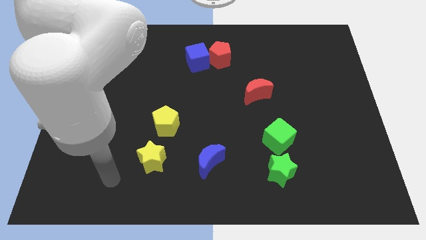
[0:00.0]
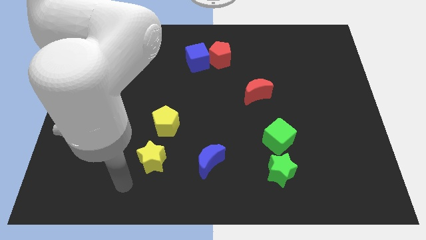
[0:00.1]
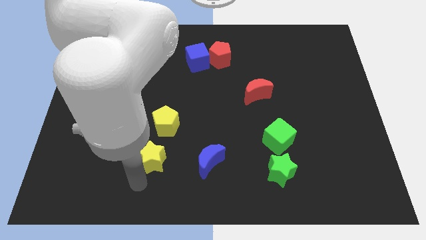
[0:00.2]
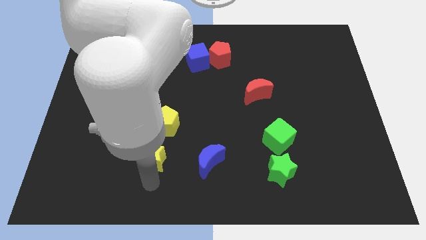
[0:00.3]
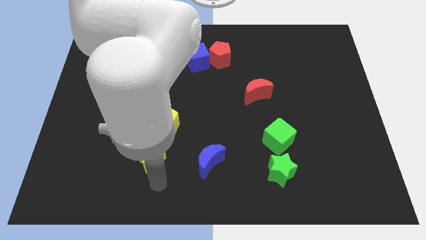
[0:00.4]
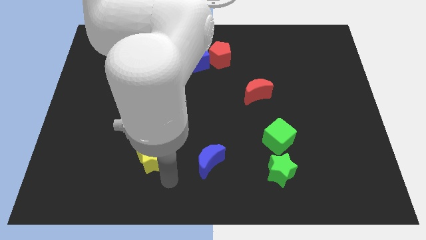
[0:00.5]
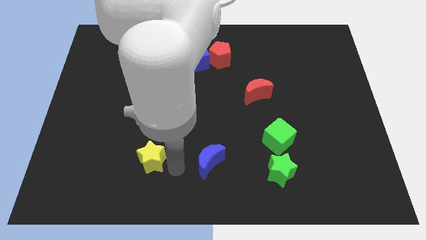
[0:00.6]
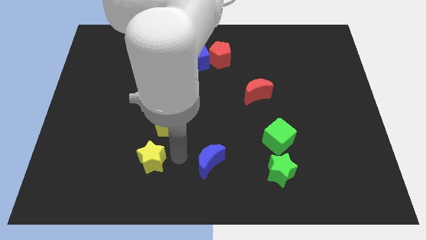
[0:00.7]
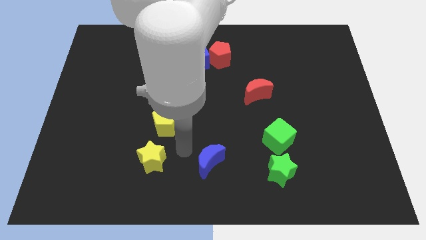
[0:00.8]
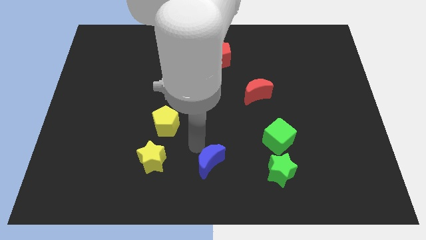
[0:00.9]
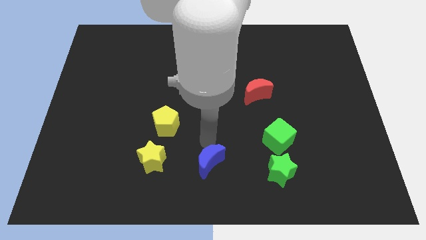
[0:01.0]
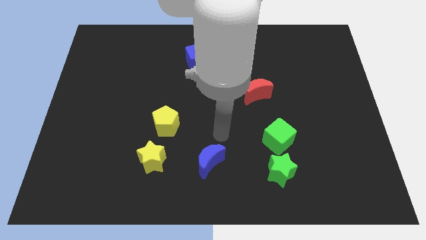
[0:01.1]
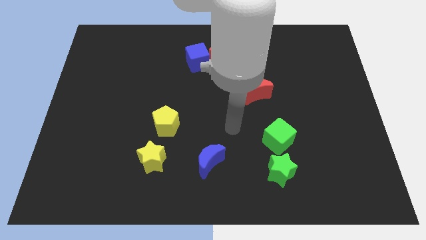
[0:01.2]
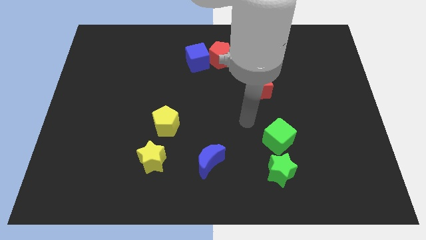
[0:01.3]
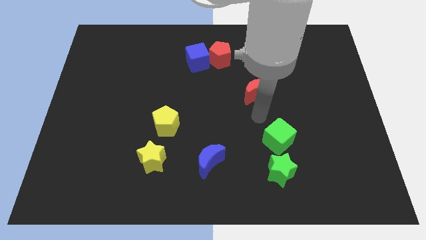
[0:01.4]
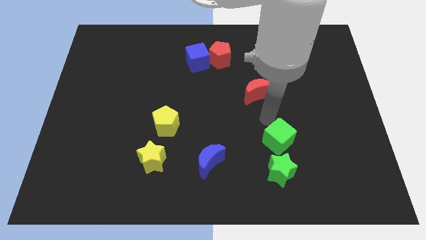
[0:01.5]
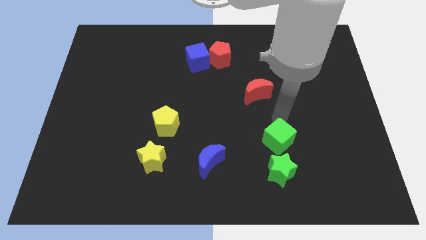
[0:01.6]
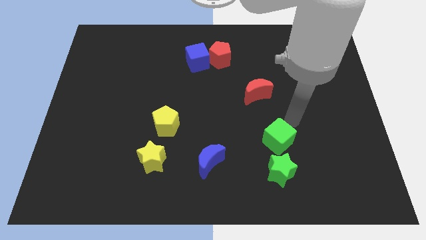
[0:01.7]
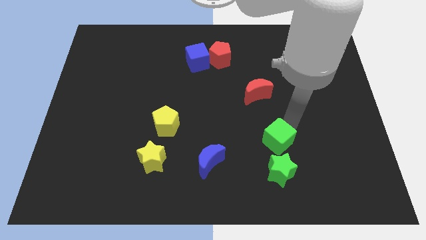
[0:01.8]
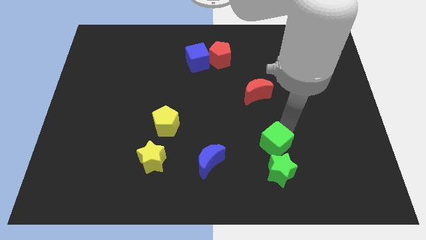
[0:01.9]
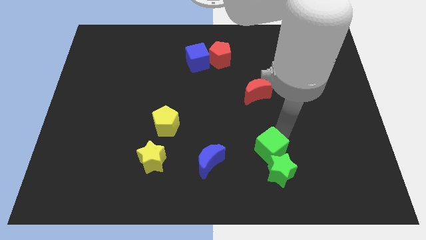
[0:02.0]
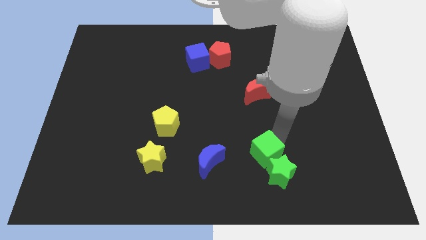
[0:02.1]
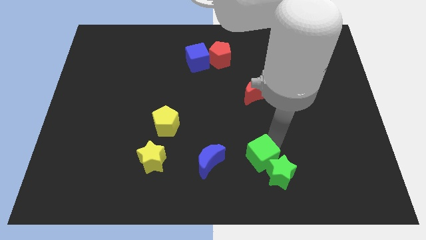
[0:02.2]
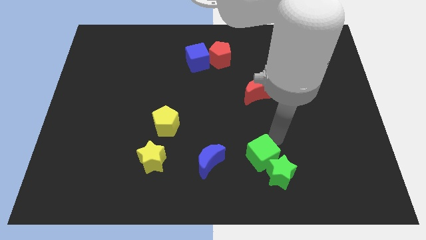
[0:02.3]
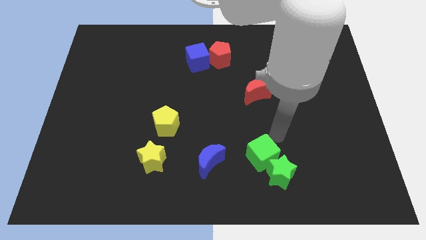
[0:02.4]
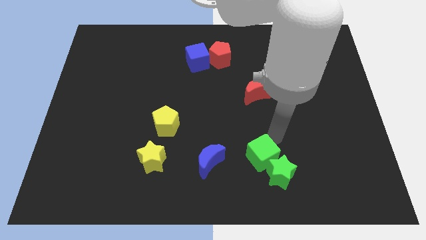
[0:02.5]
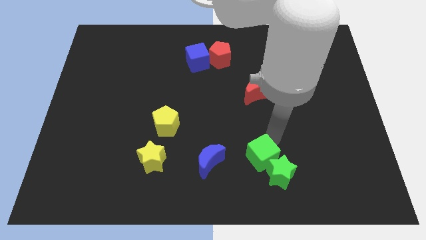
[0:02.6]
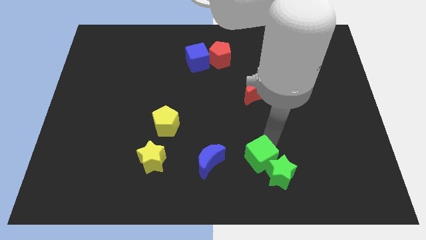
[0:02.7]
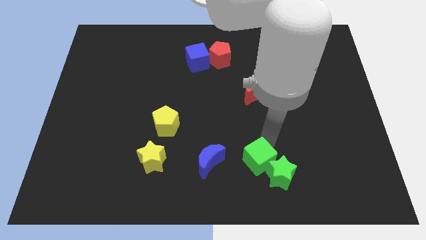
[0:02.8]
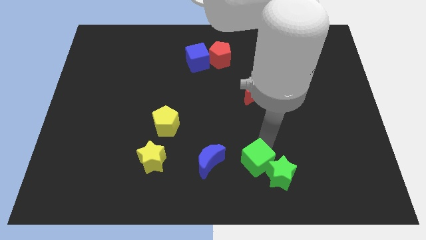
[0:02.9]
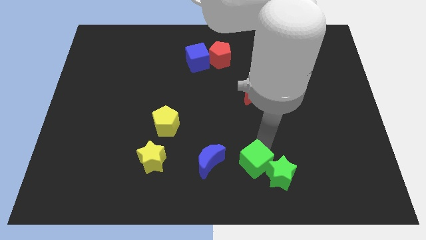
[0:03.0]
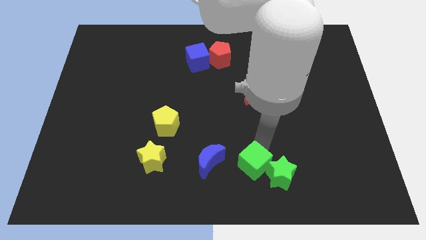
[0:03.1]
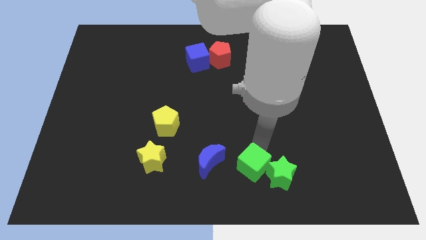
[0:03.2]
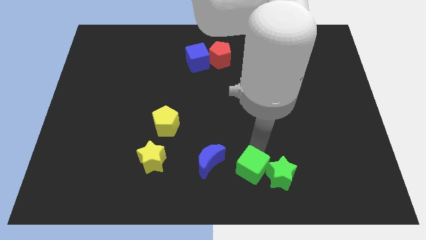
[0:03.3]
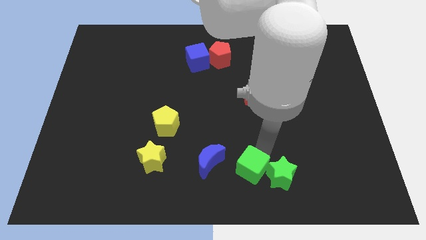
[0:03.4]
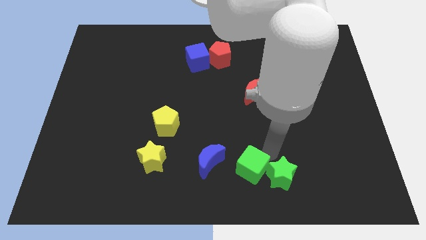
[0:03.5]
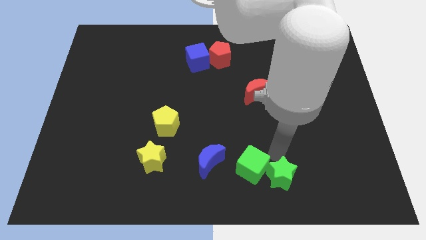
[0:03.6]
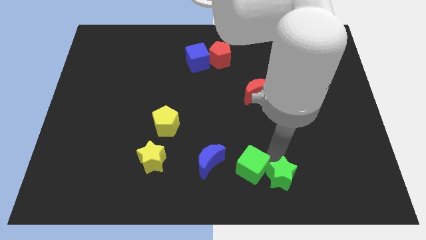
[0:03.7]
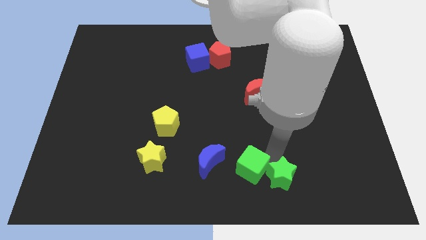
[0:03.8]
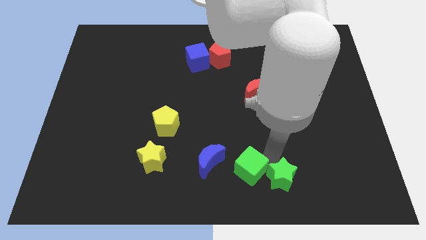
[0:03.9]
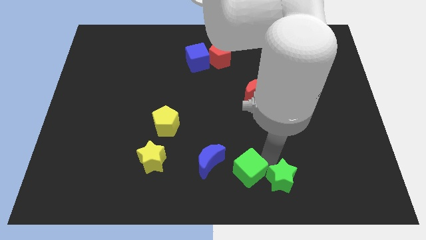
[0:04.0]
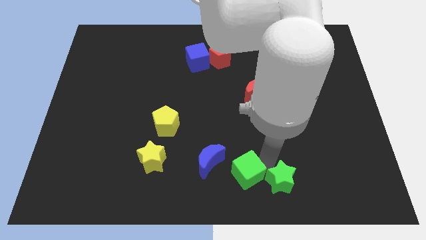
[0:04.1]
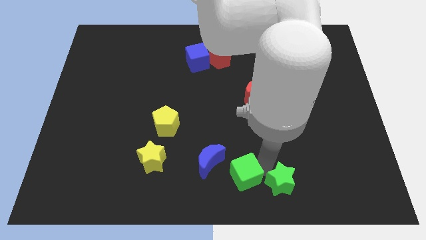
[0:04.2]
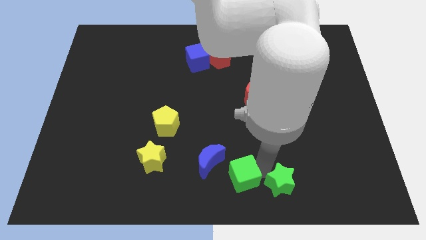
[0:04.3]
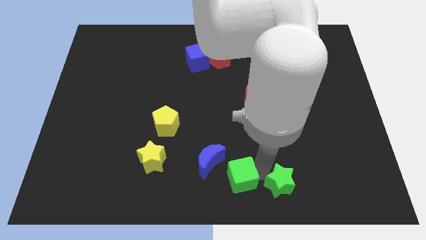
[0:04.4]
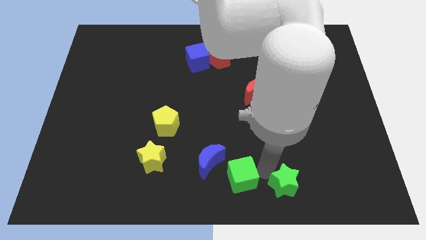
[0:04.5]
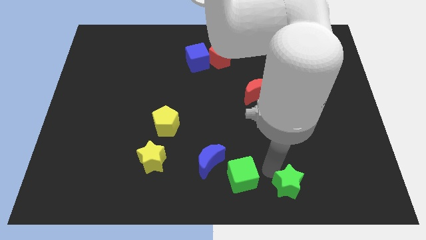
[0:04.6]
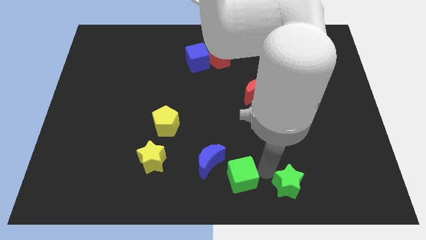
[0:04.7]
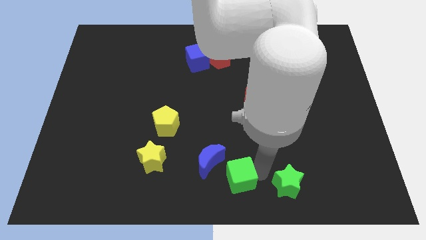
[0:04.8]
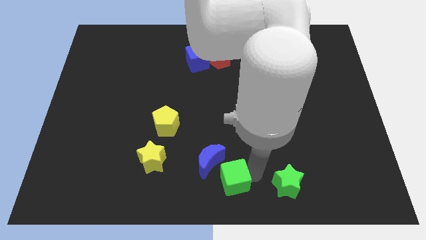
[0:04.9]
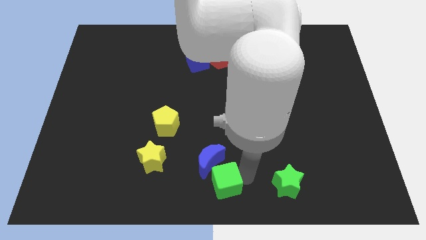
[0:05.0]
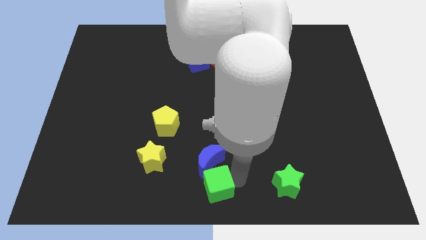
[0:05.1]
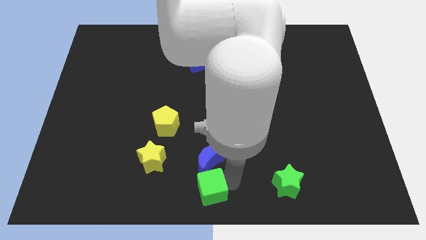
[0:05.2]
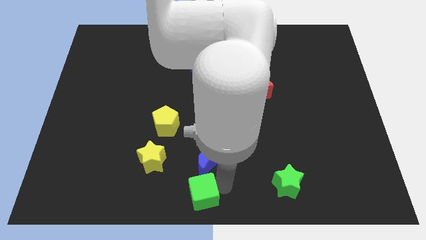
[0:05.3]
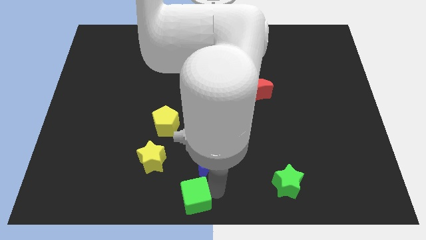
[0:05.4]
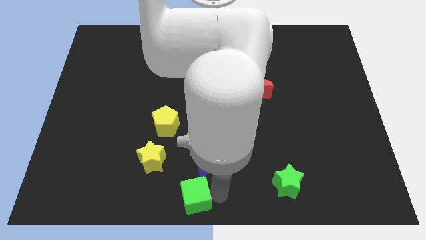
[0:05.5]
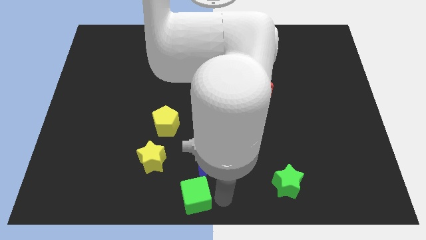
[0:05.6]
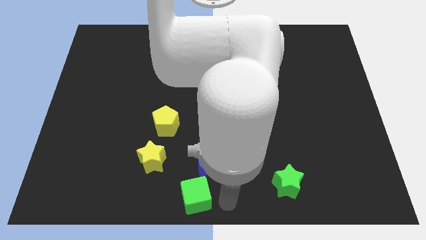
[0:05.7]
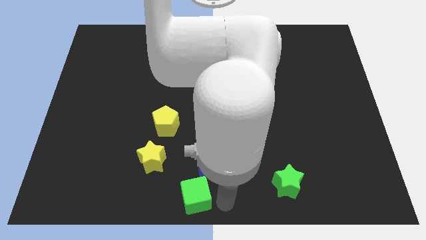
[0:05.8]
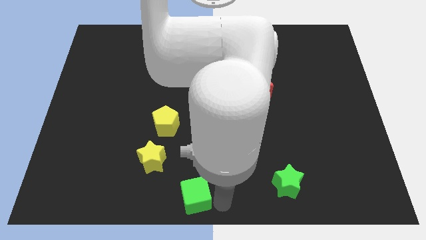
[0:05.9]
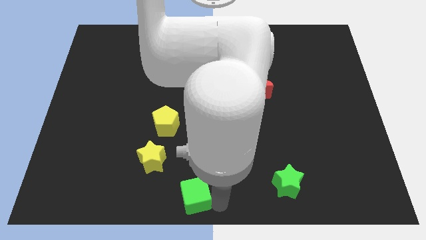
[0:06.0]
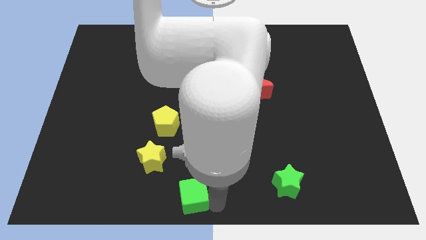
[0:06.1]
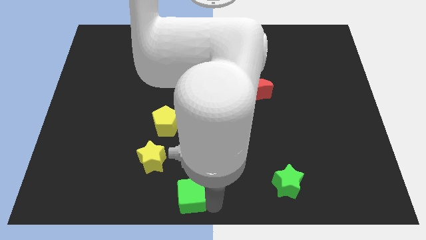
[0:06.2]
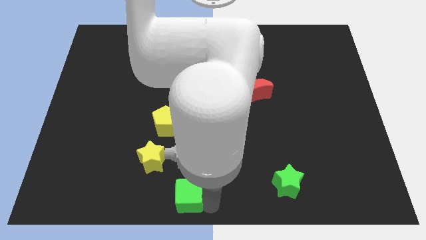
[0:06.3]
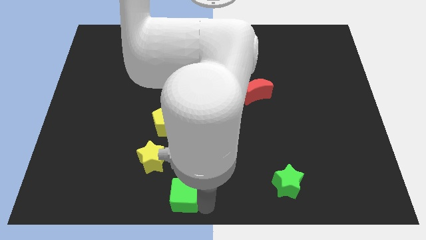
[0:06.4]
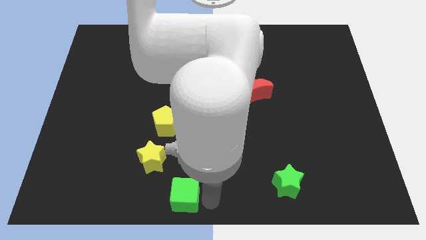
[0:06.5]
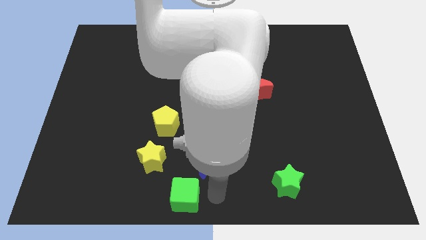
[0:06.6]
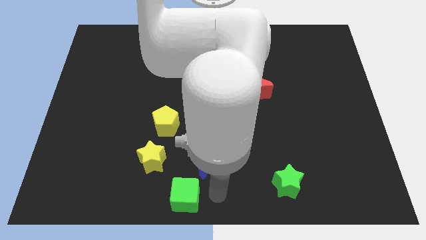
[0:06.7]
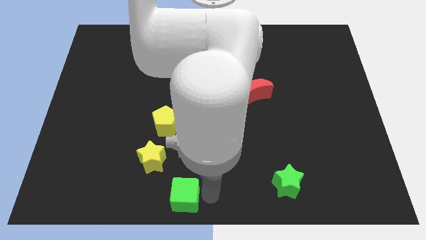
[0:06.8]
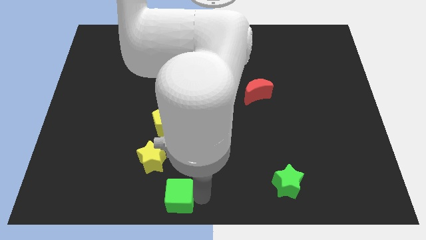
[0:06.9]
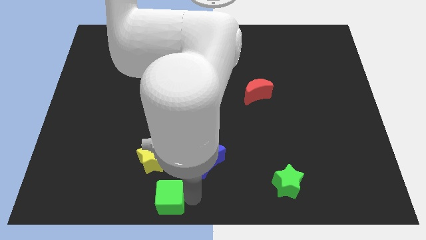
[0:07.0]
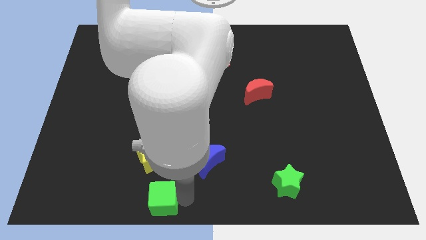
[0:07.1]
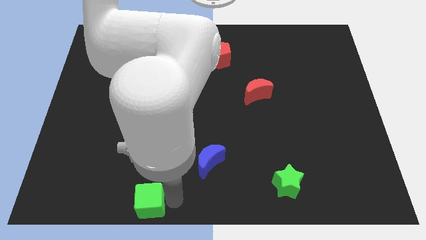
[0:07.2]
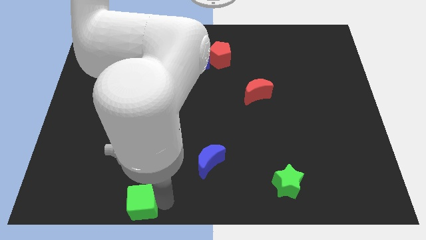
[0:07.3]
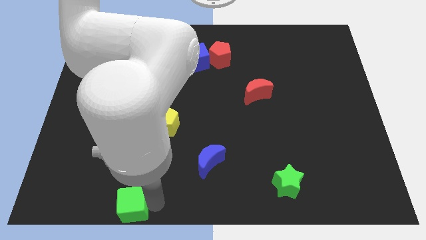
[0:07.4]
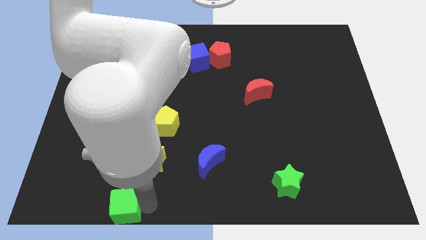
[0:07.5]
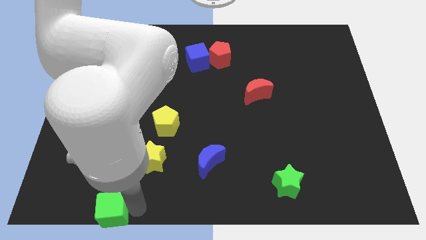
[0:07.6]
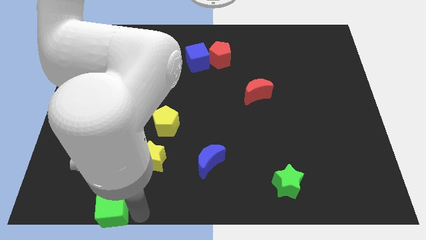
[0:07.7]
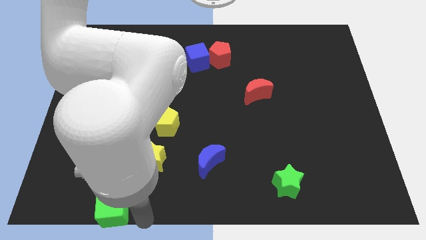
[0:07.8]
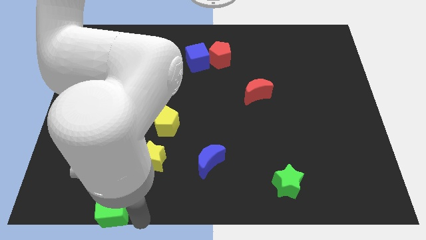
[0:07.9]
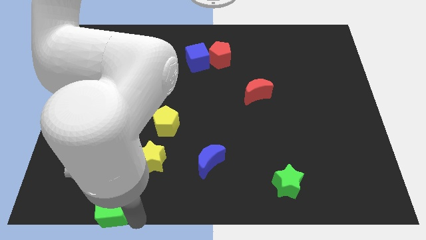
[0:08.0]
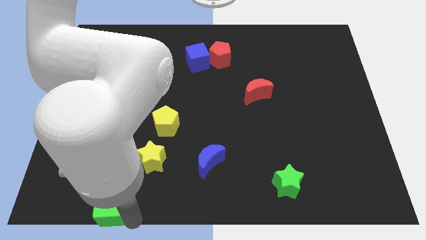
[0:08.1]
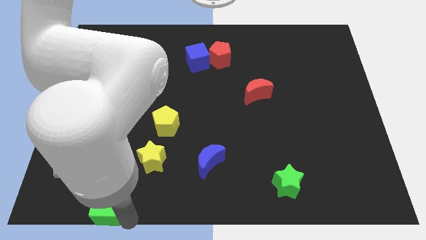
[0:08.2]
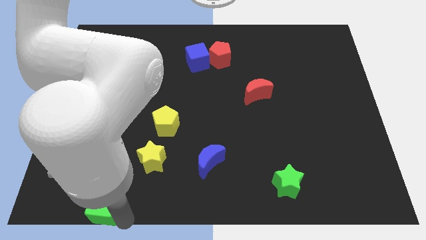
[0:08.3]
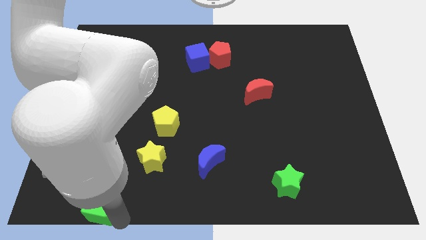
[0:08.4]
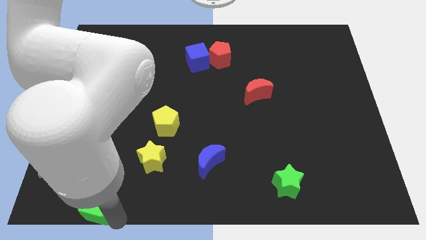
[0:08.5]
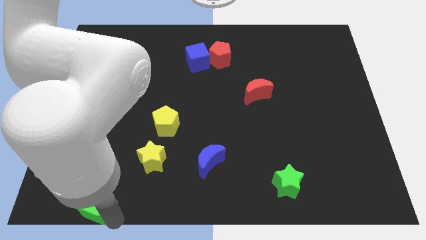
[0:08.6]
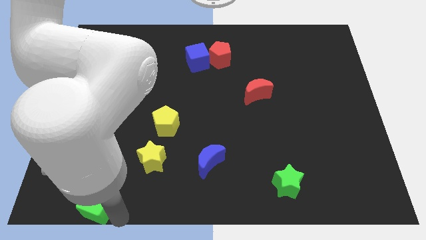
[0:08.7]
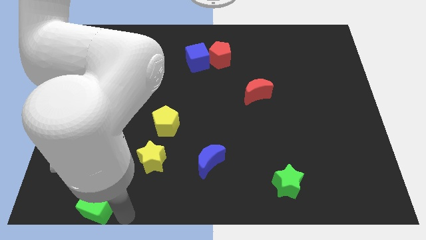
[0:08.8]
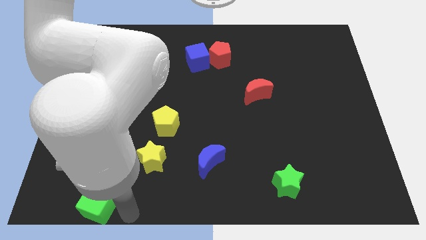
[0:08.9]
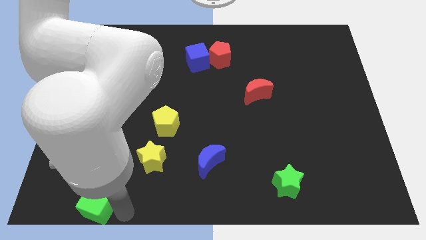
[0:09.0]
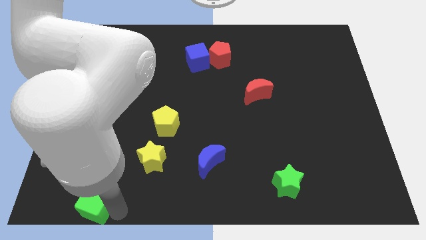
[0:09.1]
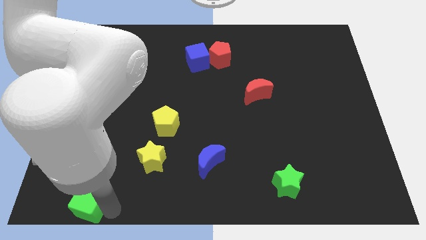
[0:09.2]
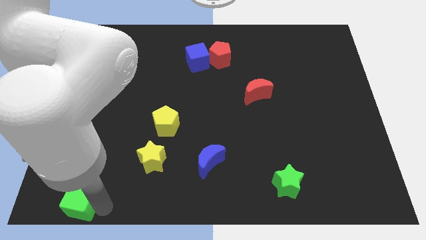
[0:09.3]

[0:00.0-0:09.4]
slide the green cube to the bottom left of the board
